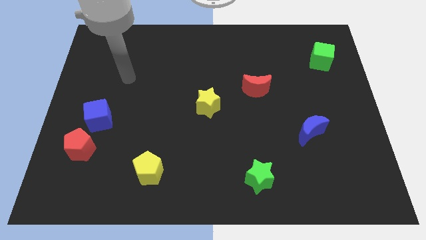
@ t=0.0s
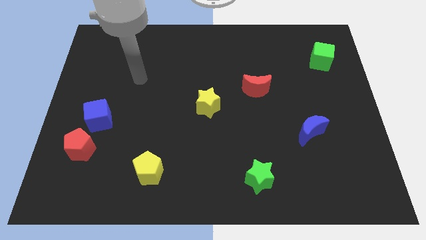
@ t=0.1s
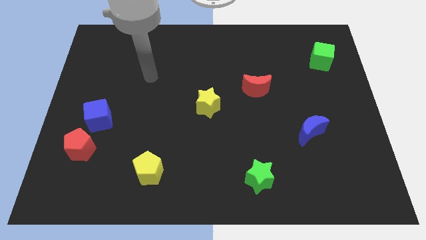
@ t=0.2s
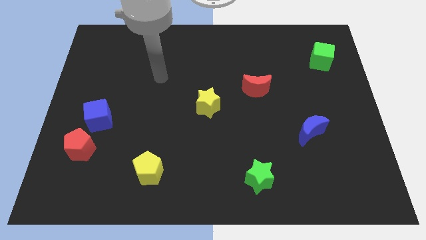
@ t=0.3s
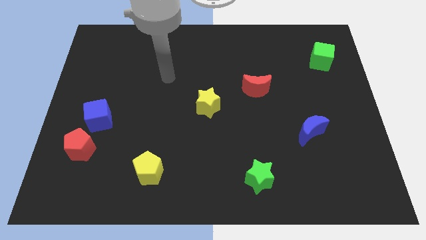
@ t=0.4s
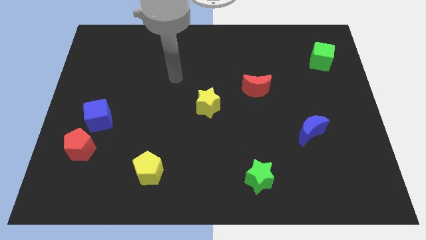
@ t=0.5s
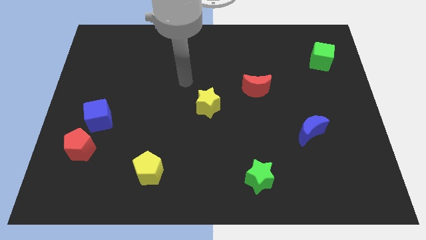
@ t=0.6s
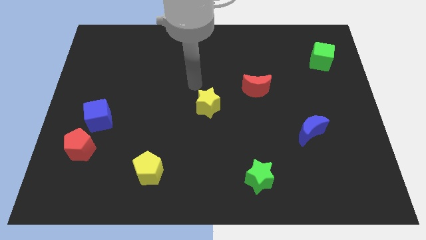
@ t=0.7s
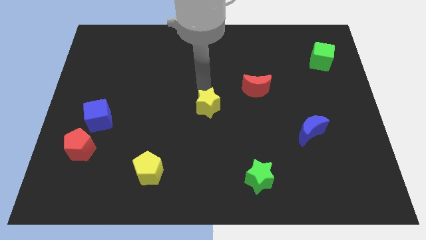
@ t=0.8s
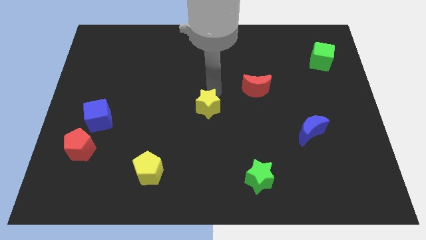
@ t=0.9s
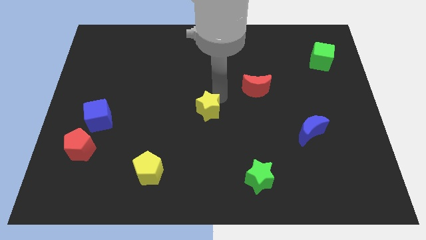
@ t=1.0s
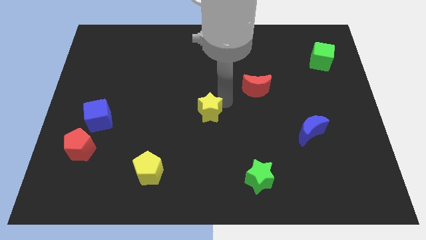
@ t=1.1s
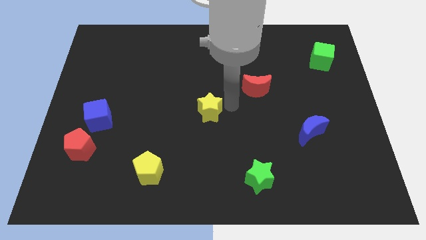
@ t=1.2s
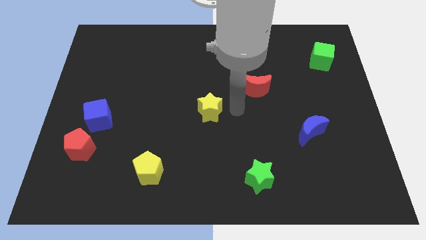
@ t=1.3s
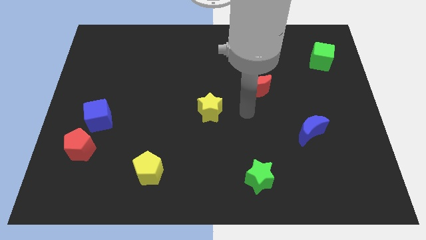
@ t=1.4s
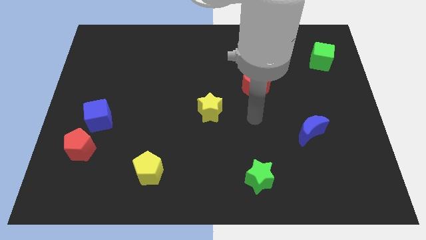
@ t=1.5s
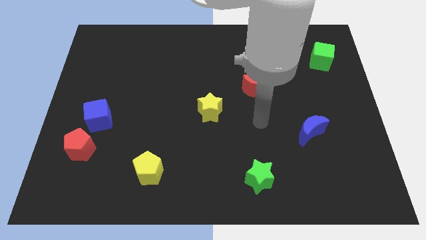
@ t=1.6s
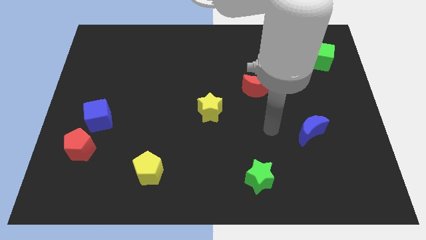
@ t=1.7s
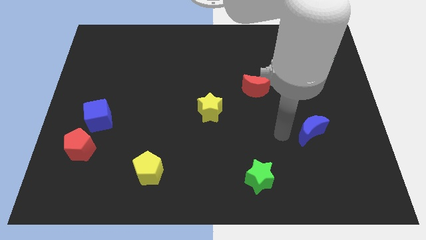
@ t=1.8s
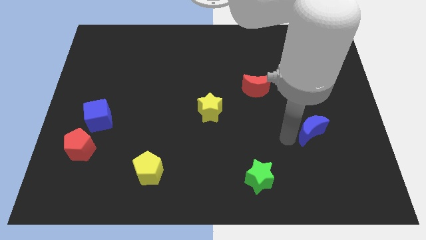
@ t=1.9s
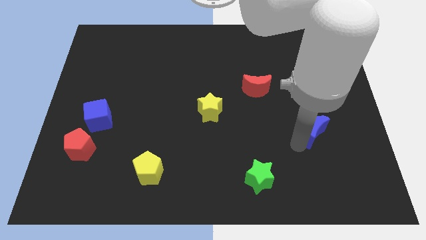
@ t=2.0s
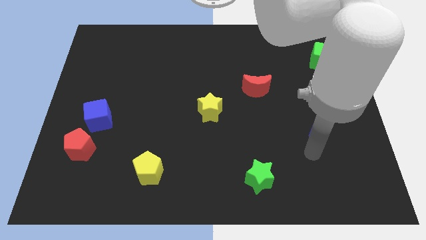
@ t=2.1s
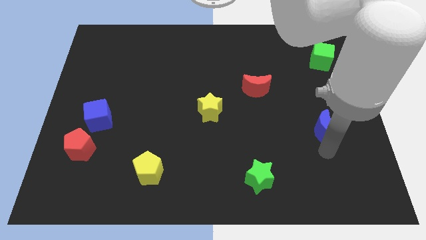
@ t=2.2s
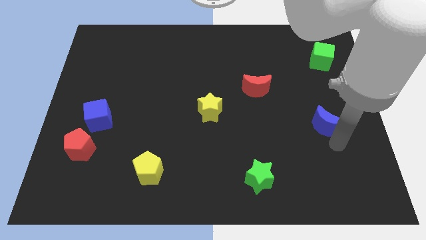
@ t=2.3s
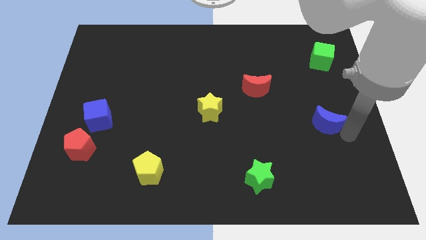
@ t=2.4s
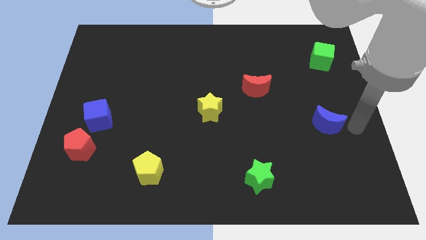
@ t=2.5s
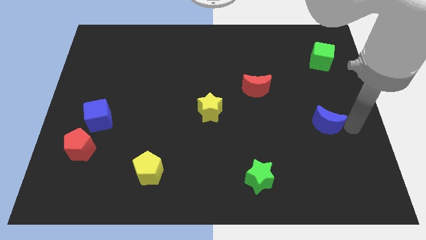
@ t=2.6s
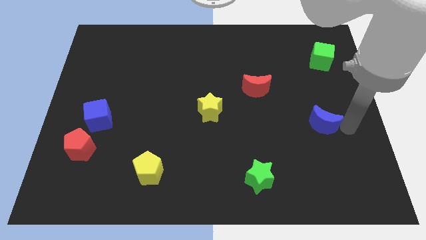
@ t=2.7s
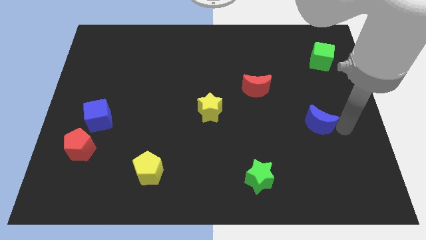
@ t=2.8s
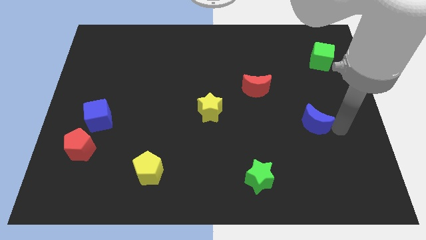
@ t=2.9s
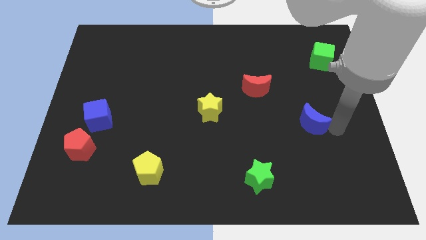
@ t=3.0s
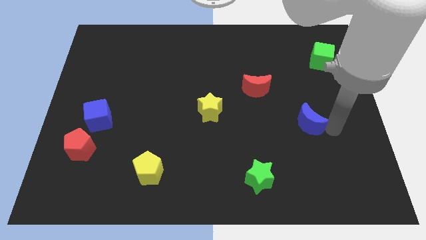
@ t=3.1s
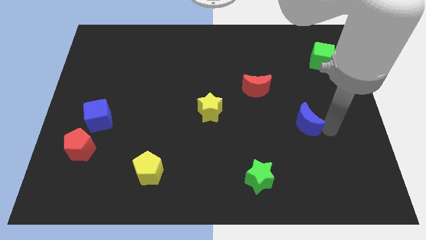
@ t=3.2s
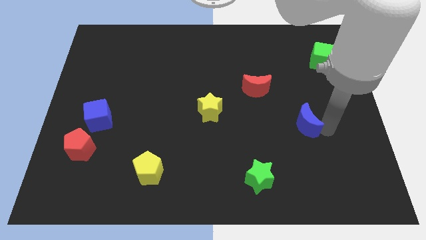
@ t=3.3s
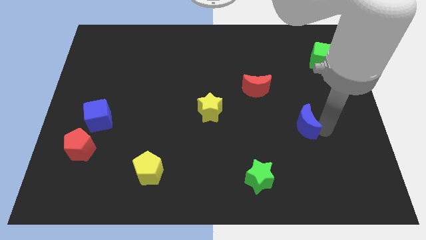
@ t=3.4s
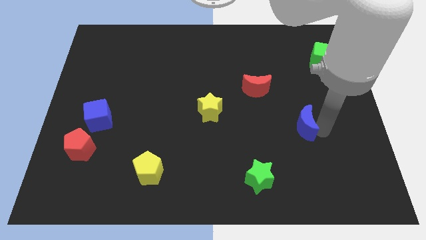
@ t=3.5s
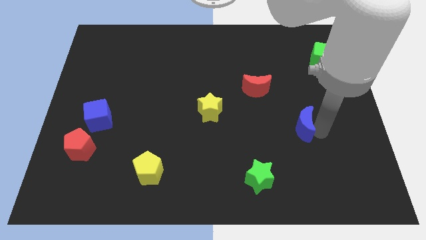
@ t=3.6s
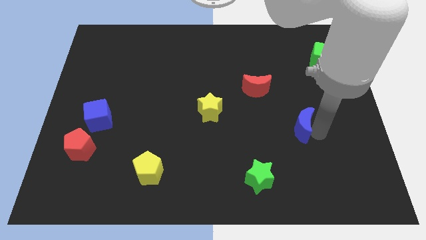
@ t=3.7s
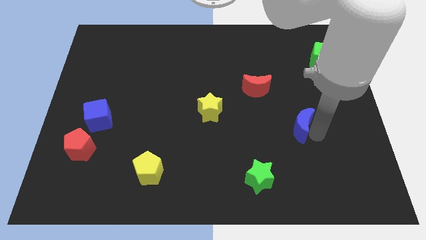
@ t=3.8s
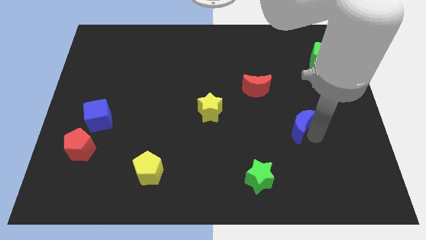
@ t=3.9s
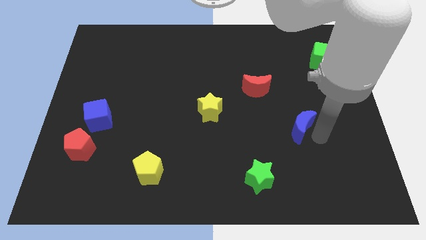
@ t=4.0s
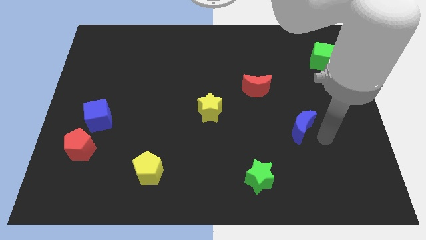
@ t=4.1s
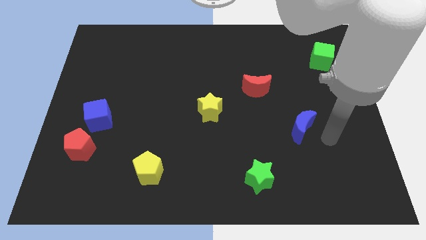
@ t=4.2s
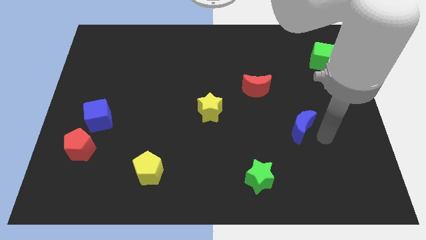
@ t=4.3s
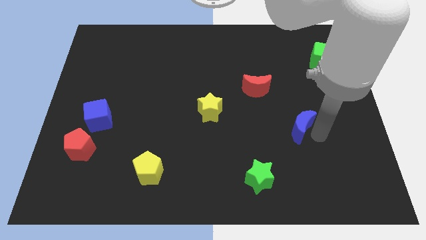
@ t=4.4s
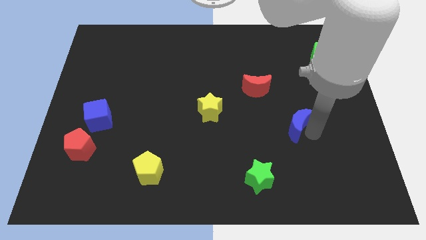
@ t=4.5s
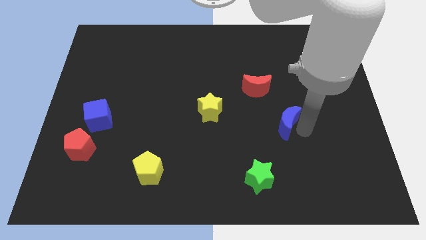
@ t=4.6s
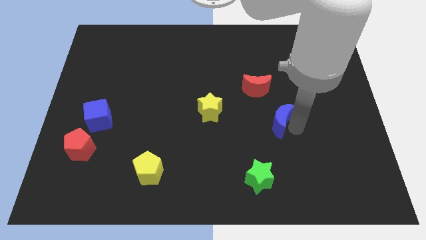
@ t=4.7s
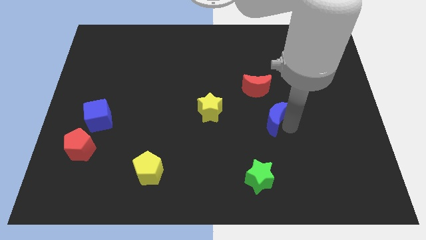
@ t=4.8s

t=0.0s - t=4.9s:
push the blue moon right of the yellow star

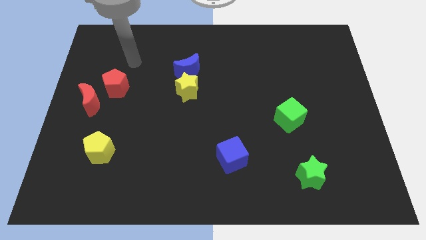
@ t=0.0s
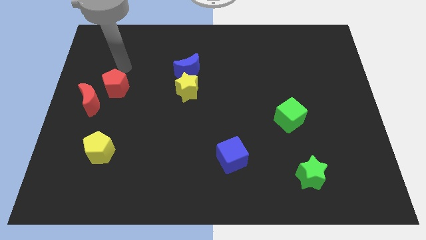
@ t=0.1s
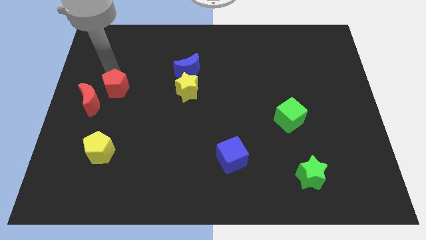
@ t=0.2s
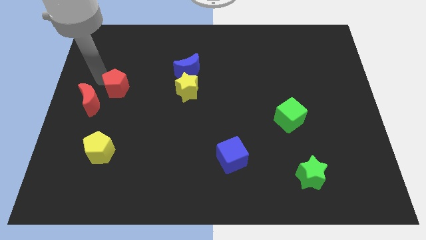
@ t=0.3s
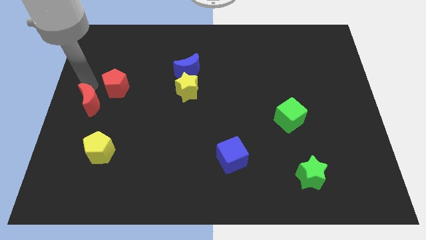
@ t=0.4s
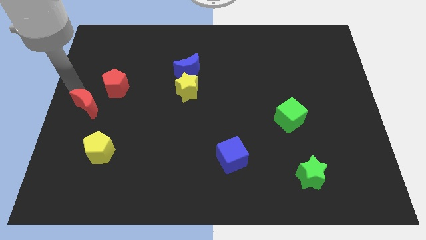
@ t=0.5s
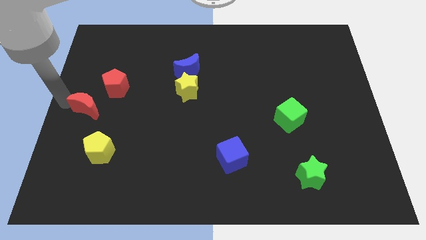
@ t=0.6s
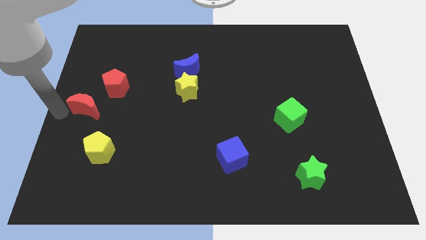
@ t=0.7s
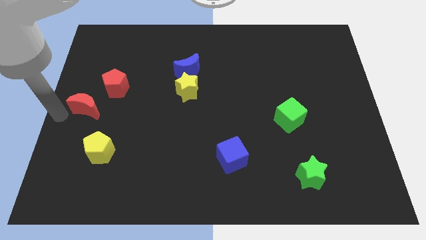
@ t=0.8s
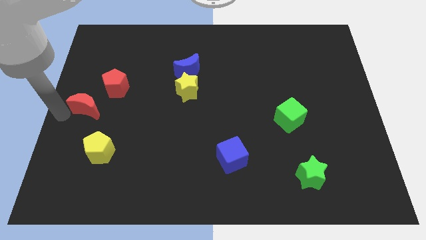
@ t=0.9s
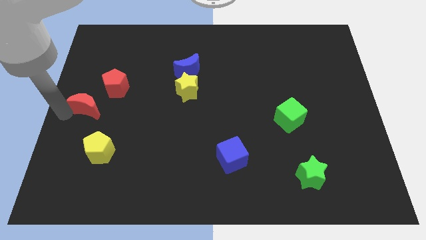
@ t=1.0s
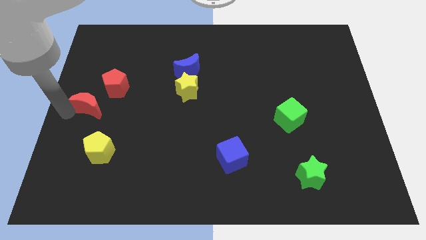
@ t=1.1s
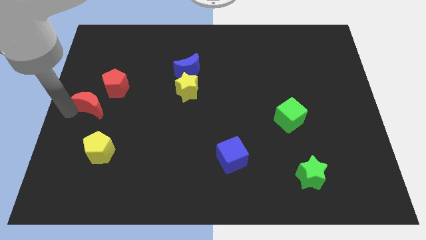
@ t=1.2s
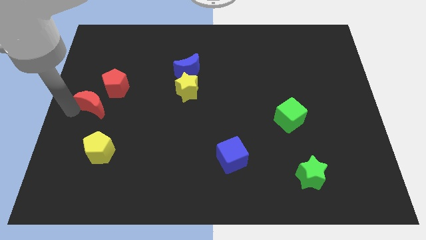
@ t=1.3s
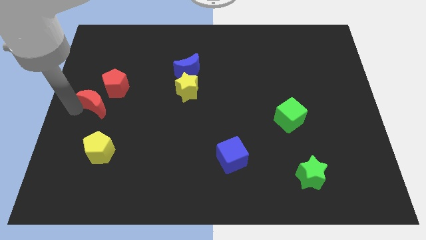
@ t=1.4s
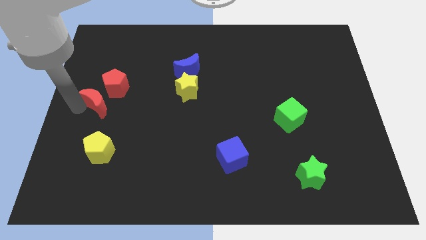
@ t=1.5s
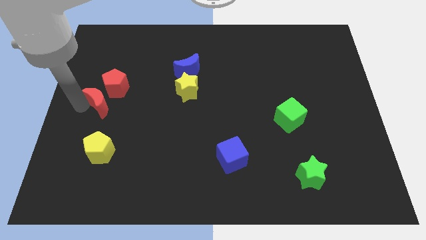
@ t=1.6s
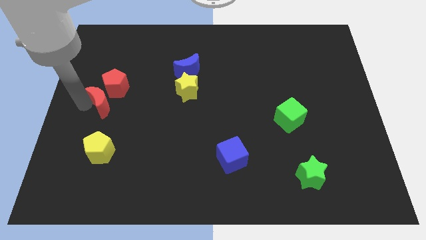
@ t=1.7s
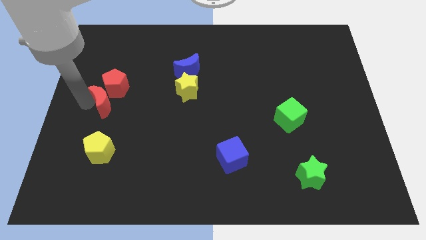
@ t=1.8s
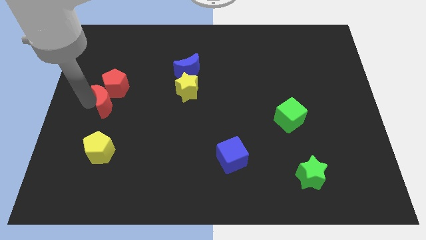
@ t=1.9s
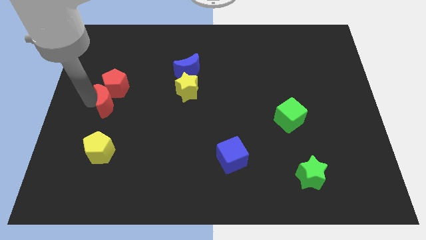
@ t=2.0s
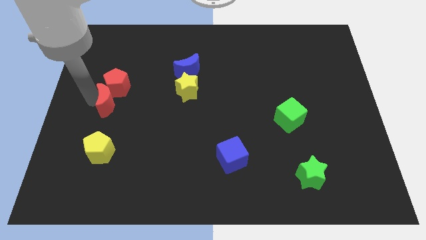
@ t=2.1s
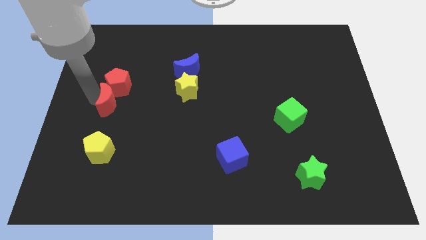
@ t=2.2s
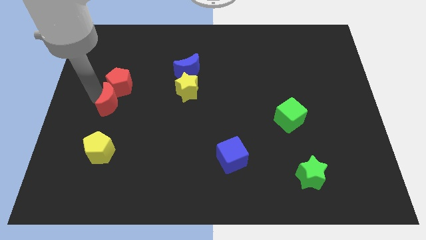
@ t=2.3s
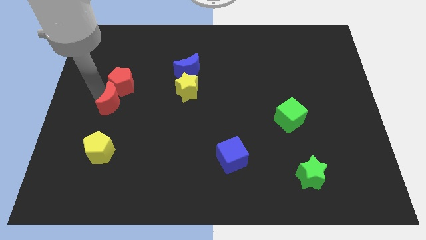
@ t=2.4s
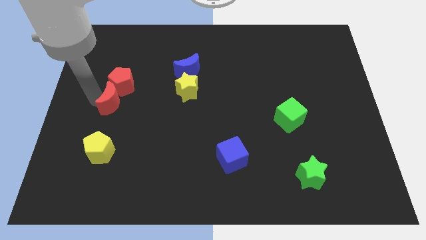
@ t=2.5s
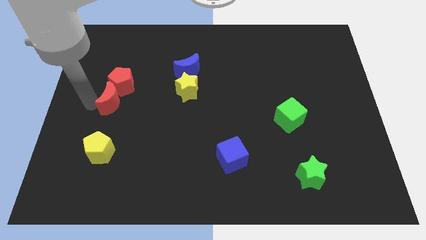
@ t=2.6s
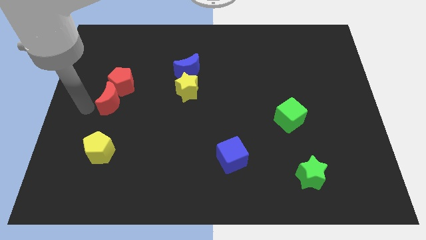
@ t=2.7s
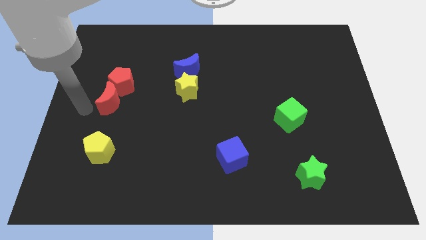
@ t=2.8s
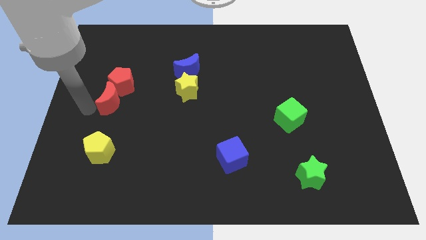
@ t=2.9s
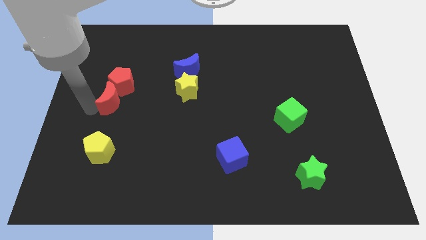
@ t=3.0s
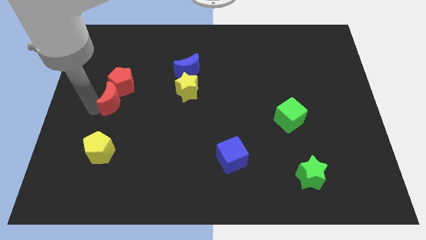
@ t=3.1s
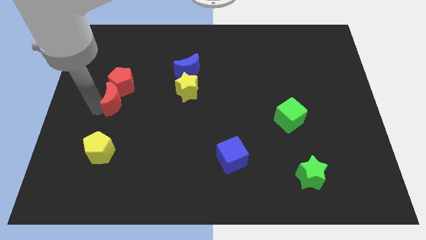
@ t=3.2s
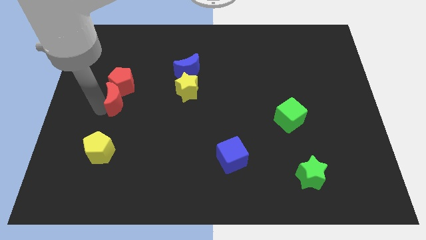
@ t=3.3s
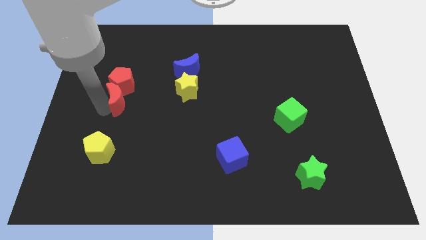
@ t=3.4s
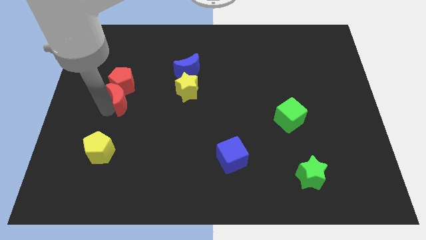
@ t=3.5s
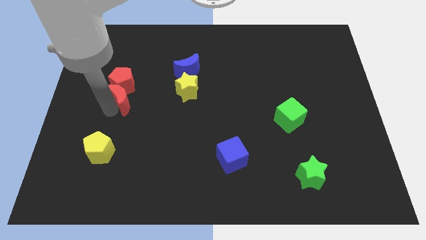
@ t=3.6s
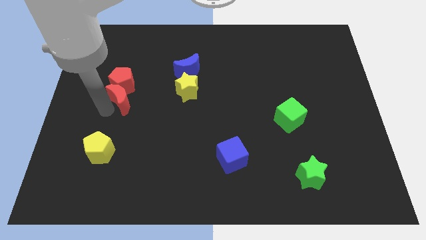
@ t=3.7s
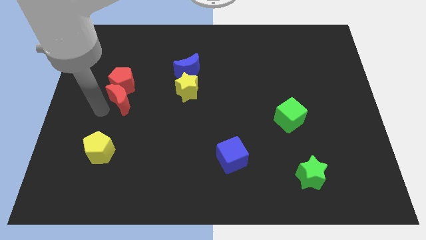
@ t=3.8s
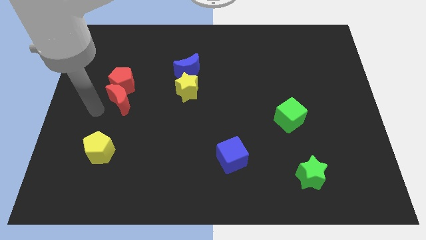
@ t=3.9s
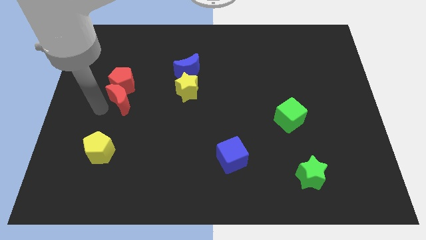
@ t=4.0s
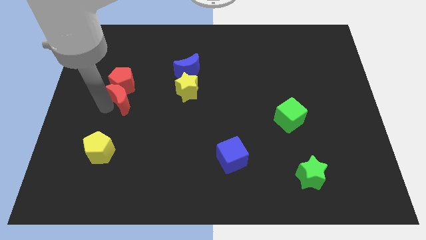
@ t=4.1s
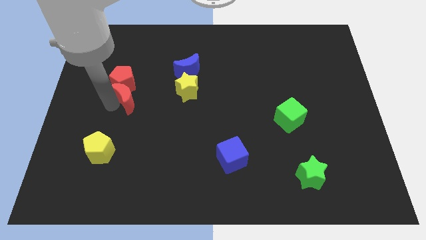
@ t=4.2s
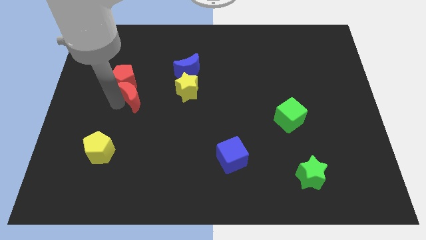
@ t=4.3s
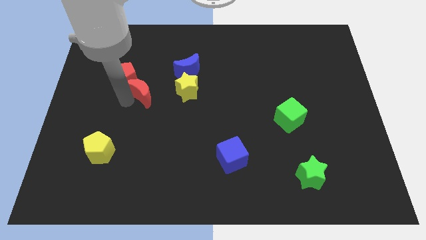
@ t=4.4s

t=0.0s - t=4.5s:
push the red moon to the right side of the red pentagon
